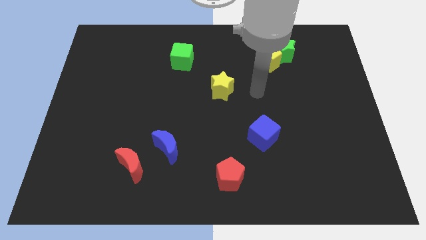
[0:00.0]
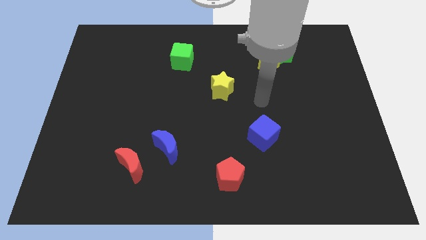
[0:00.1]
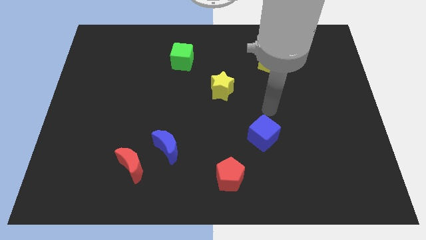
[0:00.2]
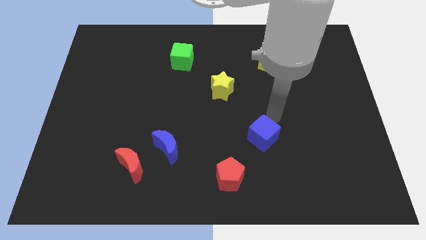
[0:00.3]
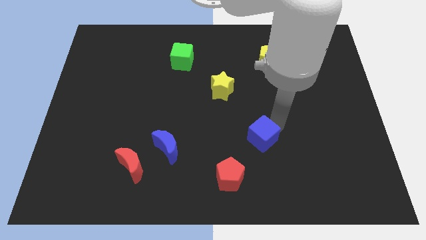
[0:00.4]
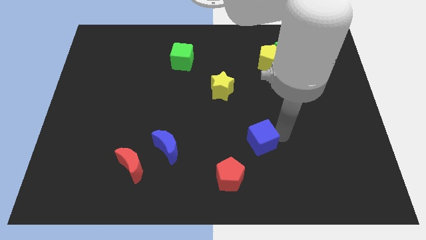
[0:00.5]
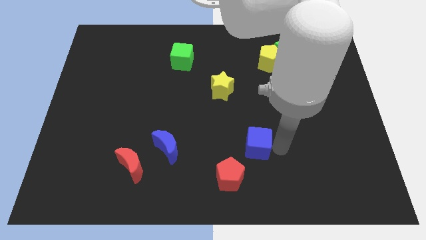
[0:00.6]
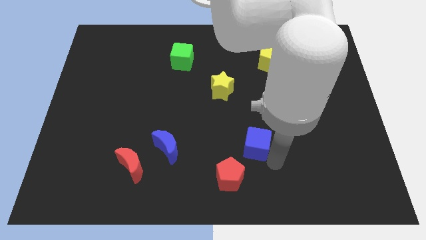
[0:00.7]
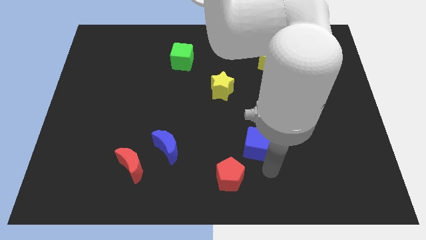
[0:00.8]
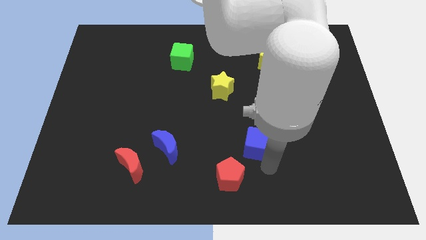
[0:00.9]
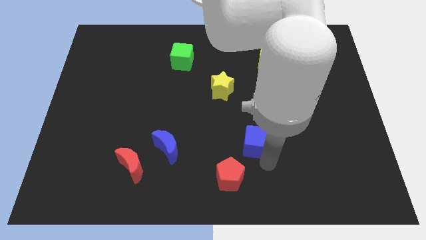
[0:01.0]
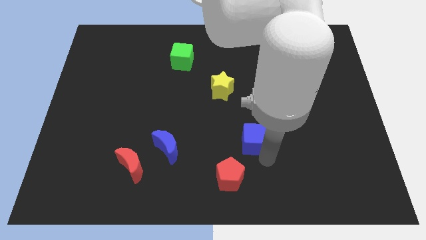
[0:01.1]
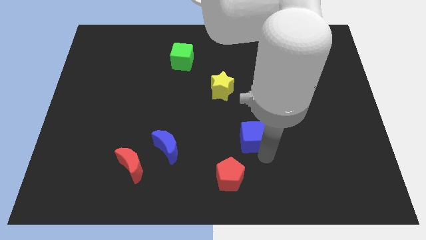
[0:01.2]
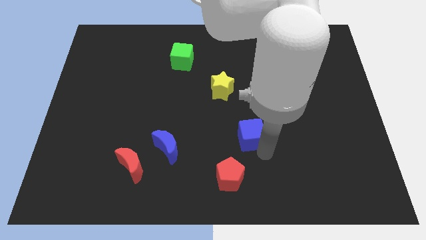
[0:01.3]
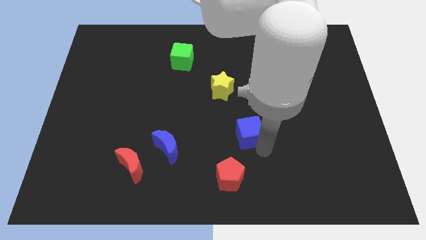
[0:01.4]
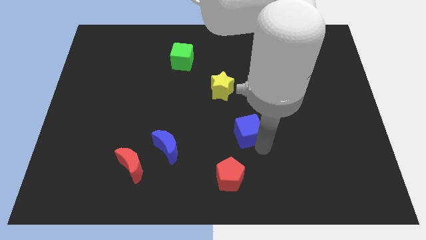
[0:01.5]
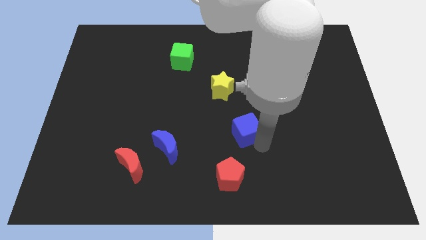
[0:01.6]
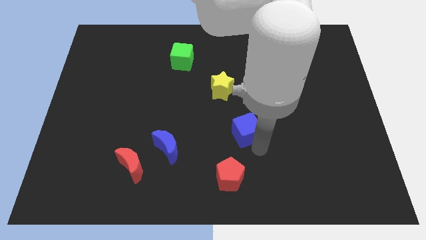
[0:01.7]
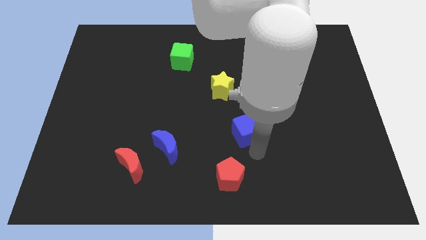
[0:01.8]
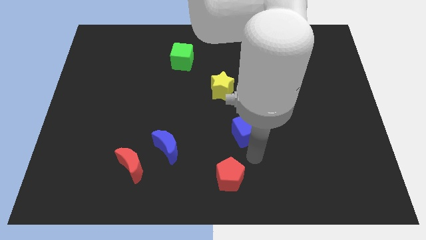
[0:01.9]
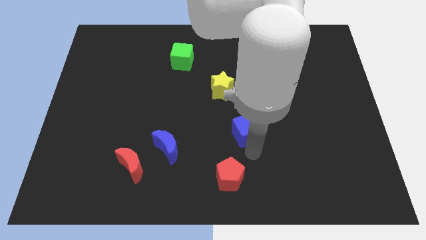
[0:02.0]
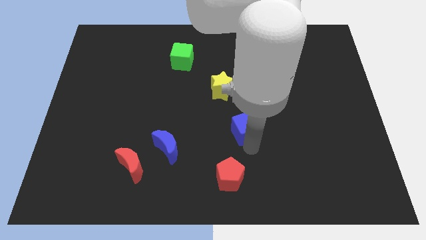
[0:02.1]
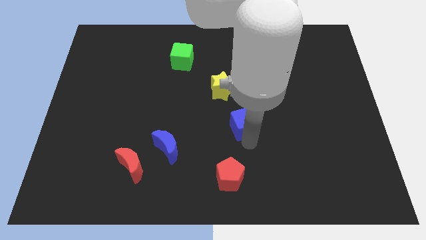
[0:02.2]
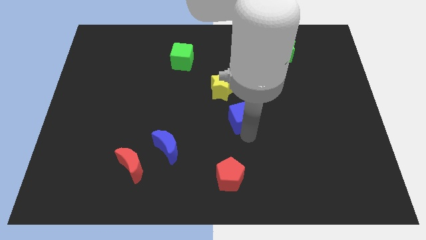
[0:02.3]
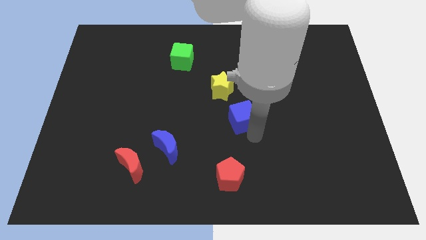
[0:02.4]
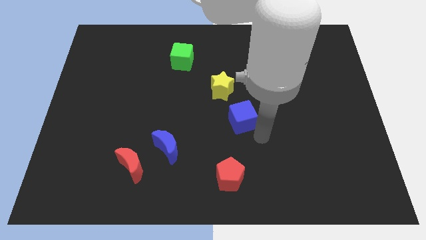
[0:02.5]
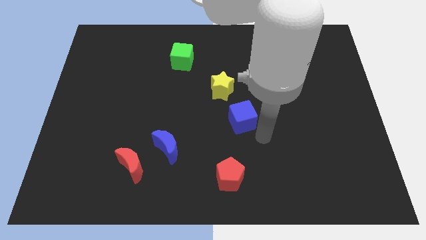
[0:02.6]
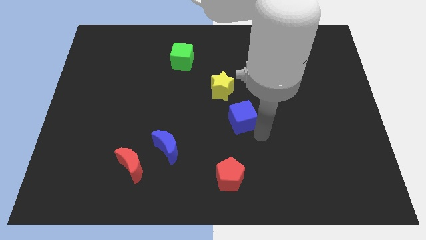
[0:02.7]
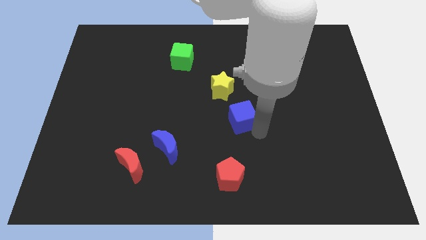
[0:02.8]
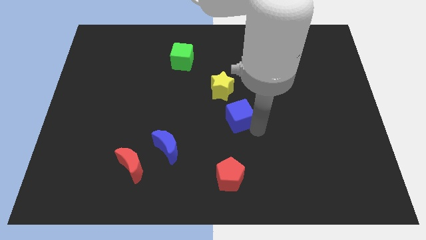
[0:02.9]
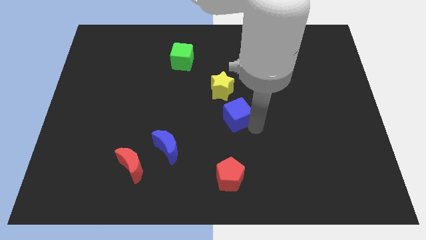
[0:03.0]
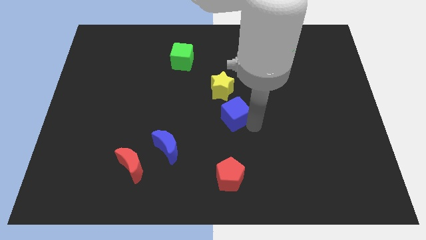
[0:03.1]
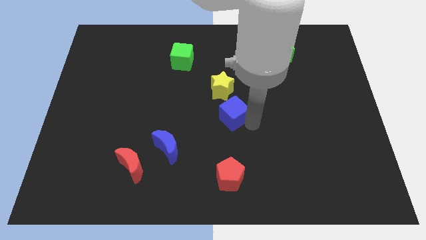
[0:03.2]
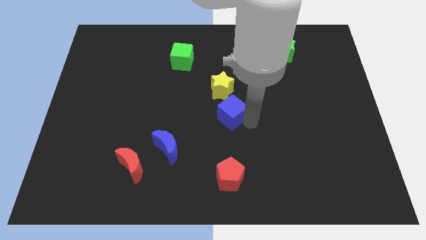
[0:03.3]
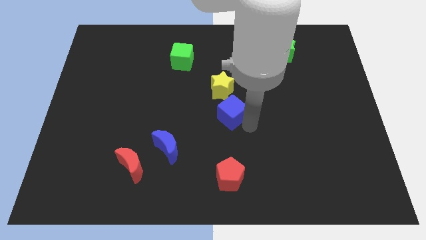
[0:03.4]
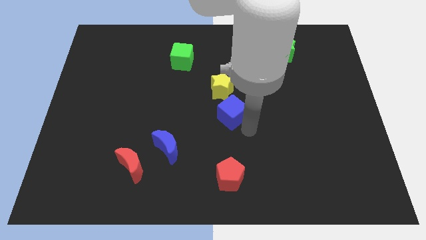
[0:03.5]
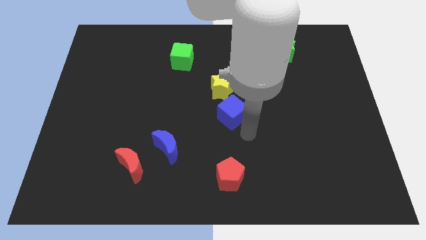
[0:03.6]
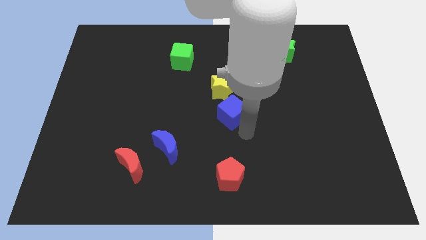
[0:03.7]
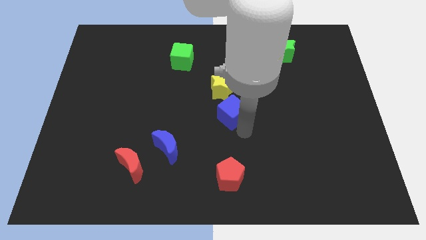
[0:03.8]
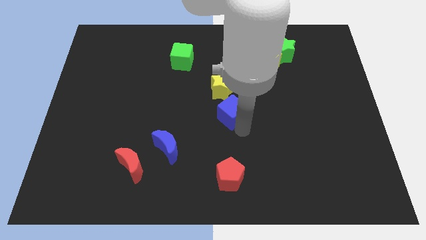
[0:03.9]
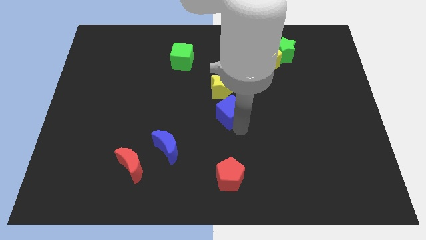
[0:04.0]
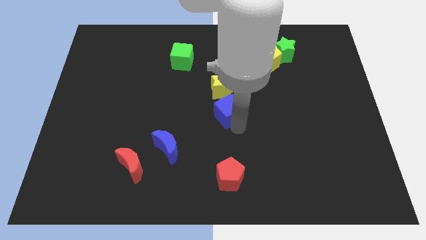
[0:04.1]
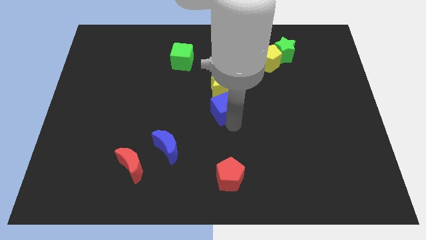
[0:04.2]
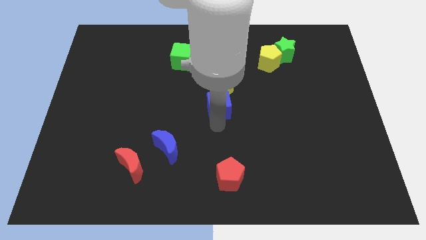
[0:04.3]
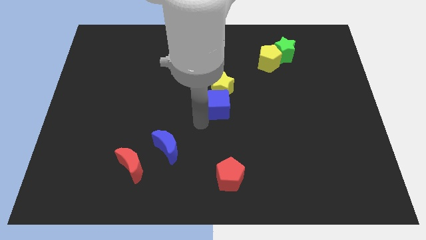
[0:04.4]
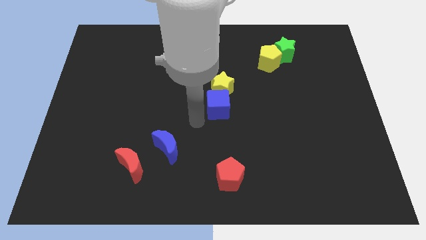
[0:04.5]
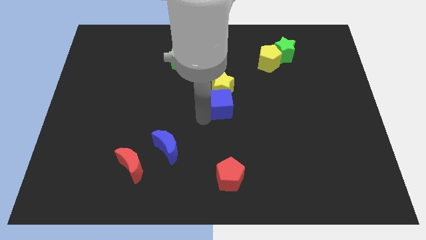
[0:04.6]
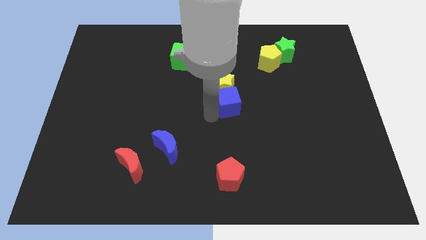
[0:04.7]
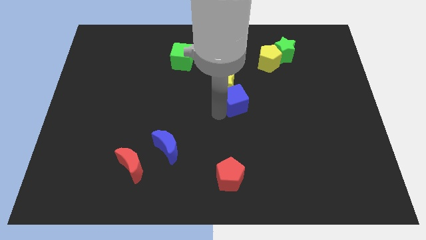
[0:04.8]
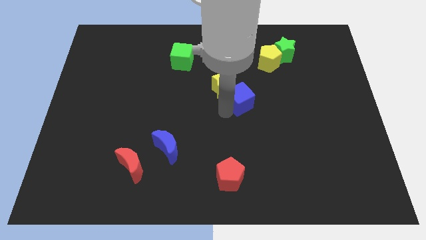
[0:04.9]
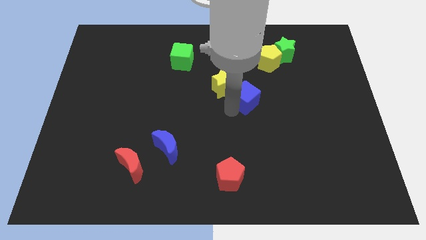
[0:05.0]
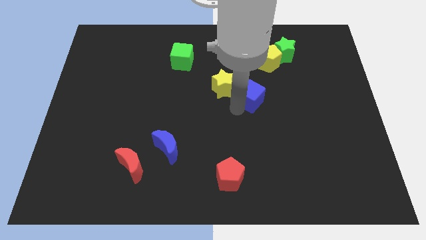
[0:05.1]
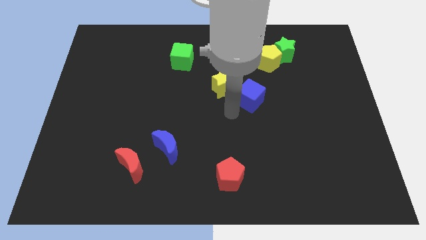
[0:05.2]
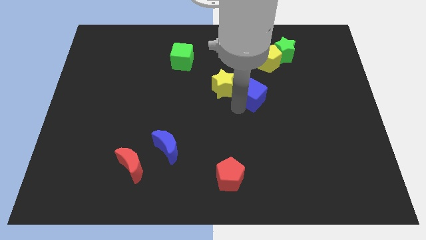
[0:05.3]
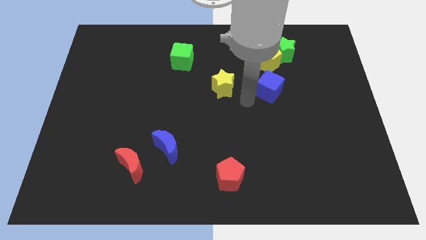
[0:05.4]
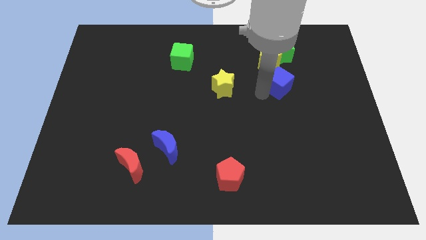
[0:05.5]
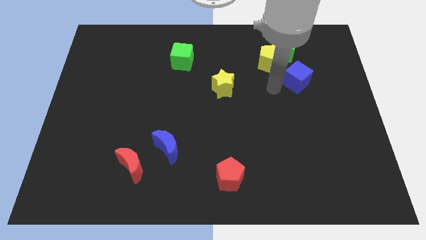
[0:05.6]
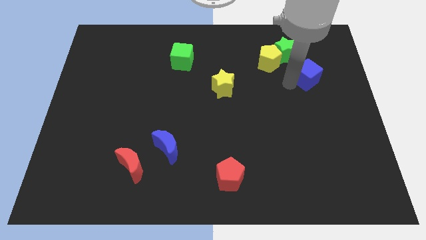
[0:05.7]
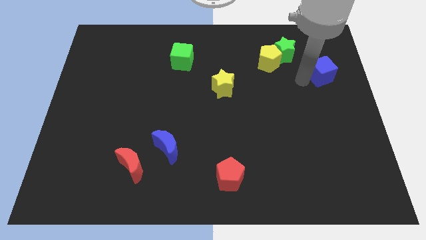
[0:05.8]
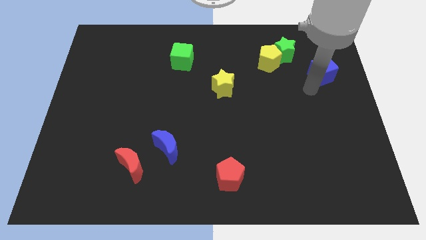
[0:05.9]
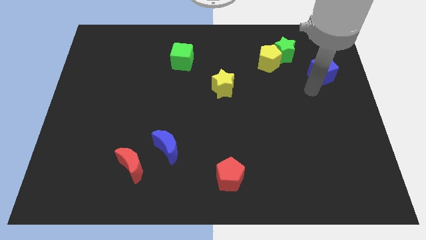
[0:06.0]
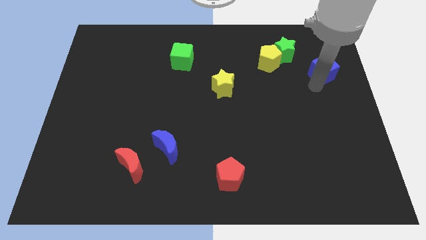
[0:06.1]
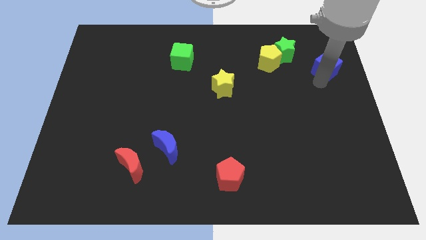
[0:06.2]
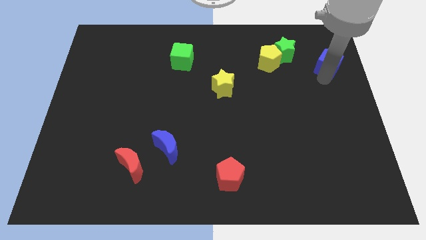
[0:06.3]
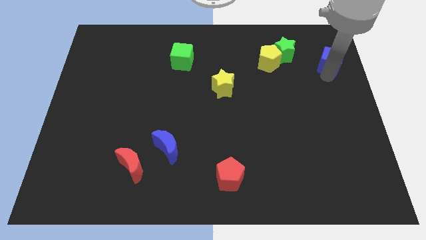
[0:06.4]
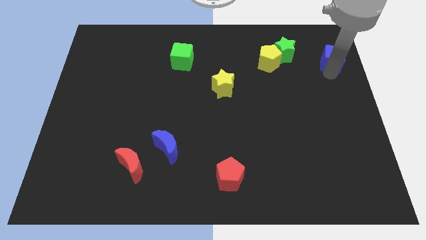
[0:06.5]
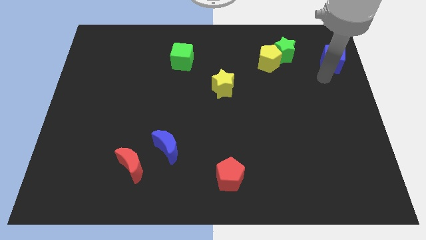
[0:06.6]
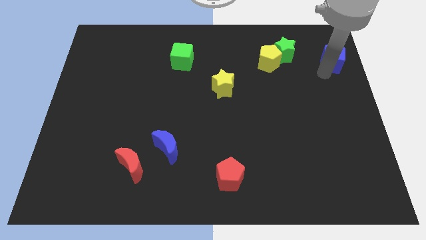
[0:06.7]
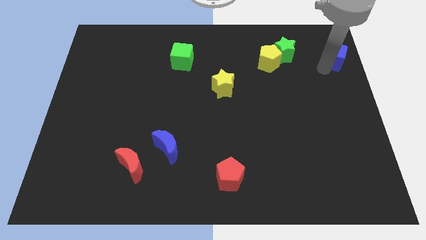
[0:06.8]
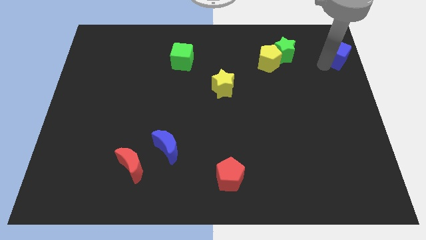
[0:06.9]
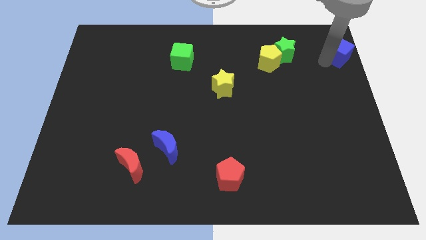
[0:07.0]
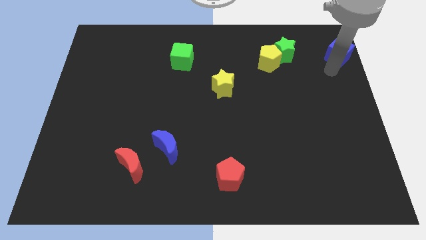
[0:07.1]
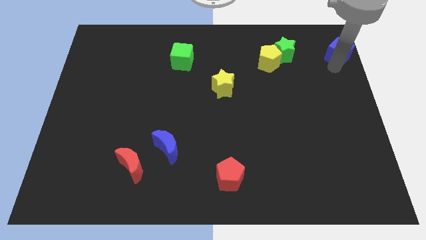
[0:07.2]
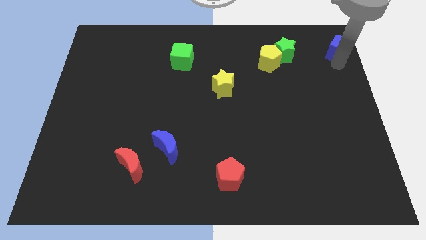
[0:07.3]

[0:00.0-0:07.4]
push the blue cube to the top right
